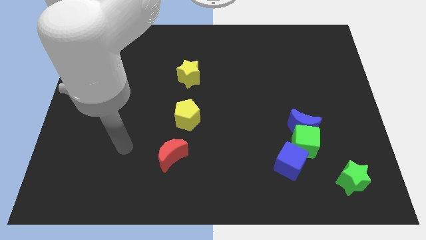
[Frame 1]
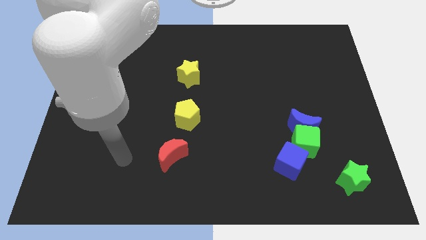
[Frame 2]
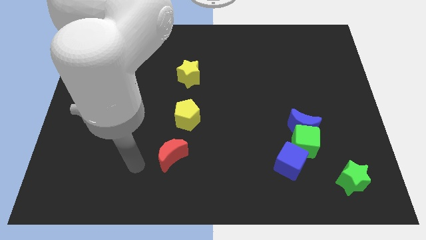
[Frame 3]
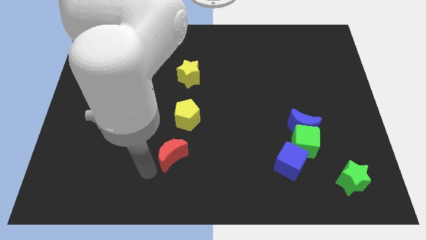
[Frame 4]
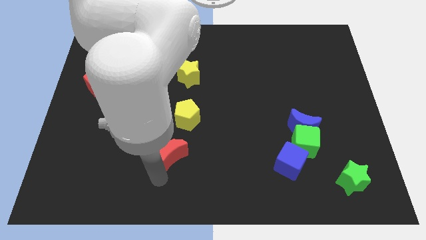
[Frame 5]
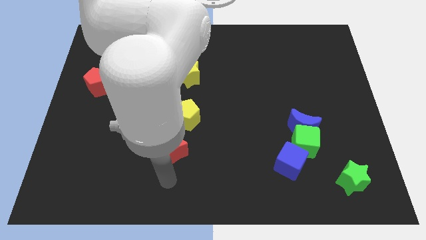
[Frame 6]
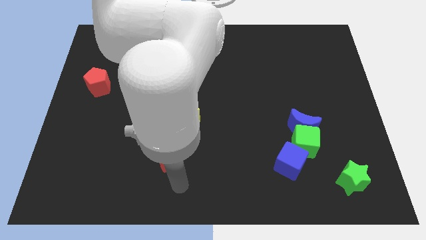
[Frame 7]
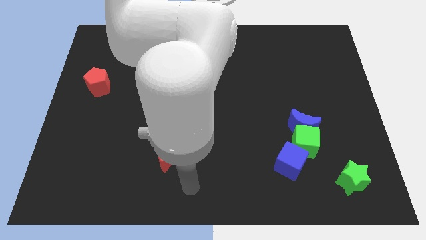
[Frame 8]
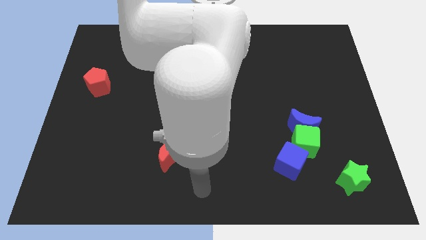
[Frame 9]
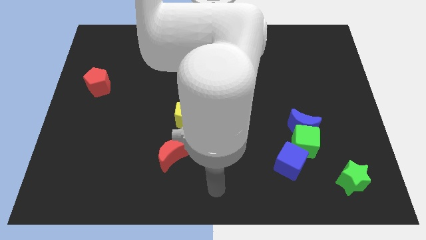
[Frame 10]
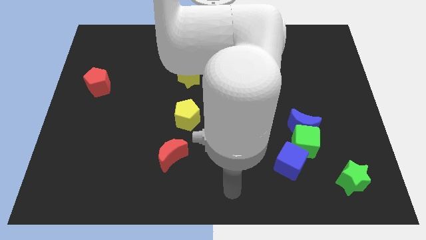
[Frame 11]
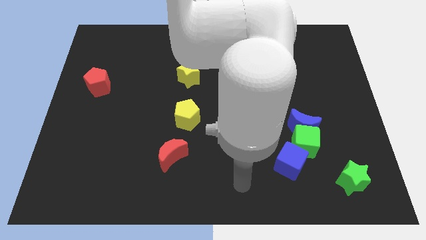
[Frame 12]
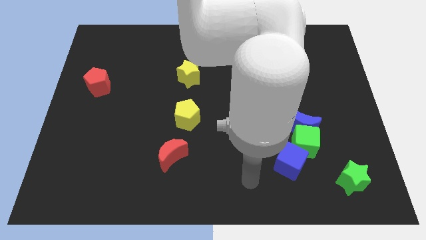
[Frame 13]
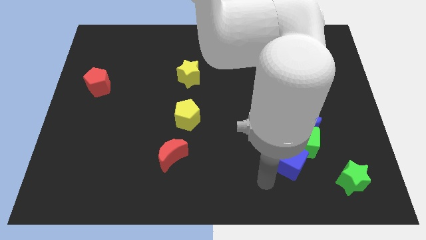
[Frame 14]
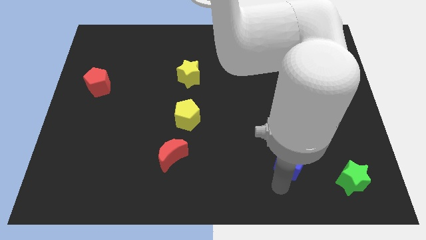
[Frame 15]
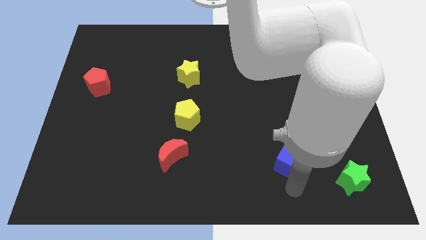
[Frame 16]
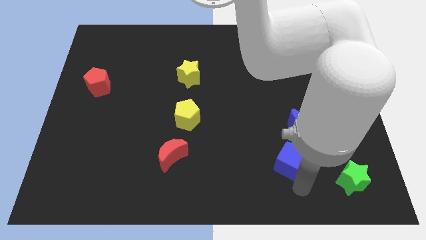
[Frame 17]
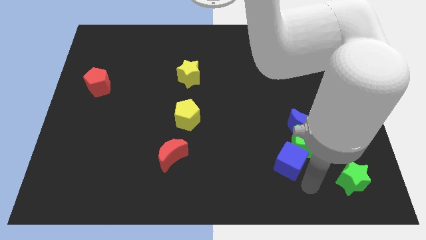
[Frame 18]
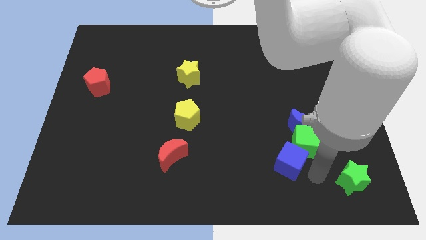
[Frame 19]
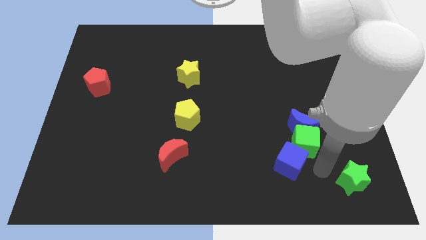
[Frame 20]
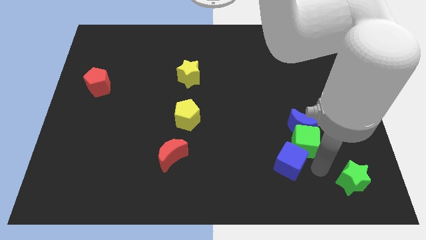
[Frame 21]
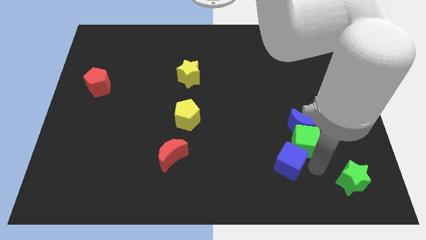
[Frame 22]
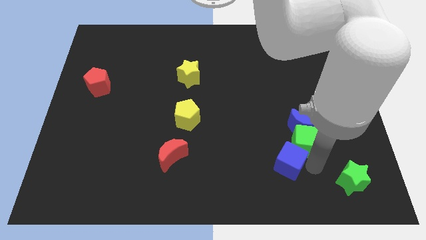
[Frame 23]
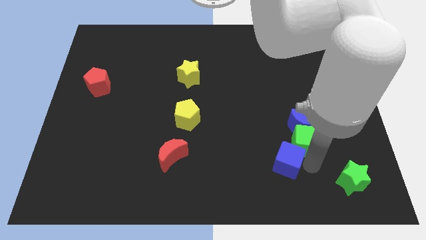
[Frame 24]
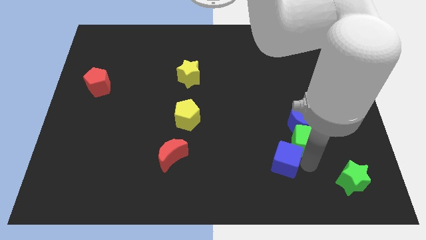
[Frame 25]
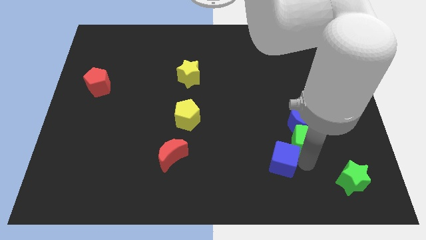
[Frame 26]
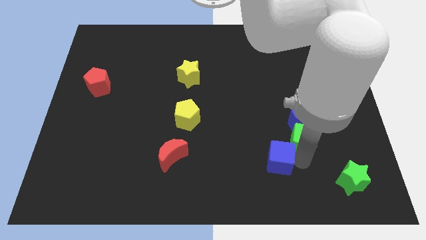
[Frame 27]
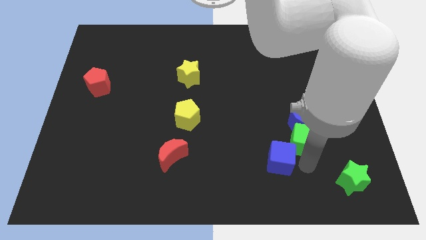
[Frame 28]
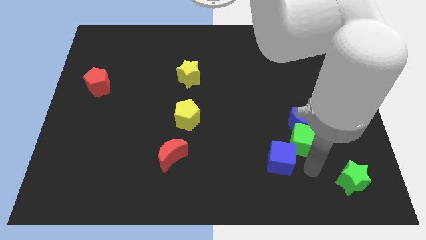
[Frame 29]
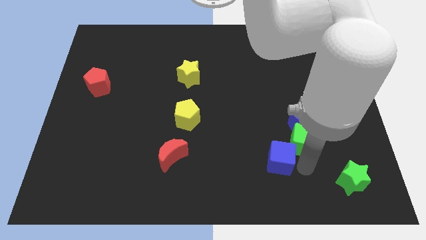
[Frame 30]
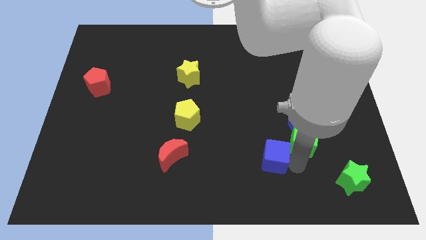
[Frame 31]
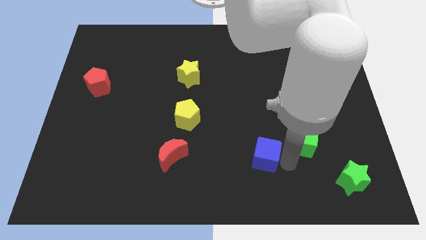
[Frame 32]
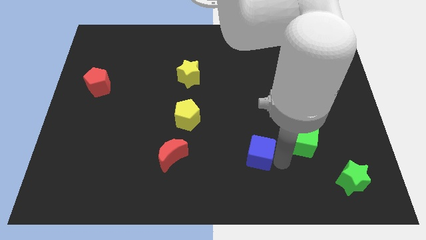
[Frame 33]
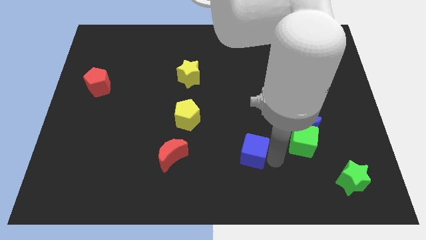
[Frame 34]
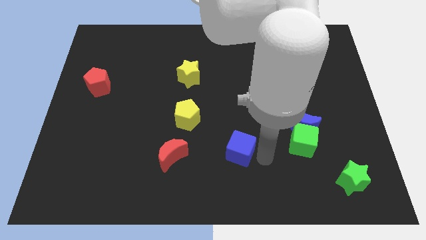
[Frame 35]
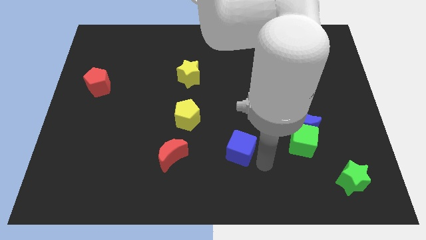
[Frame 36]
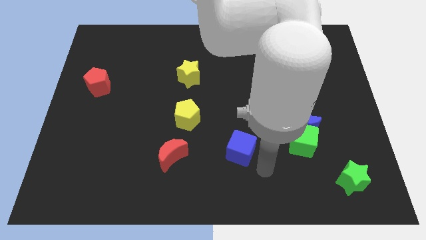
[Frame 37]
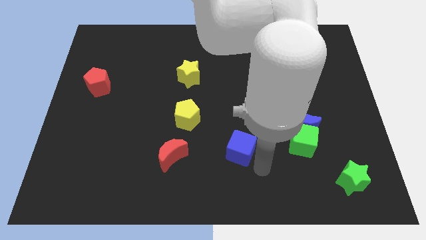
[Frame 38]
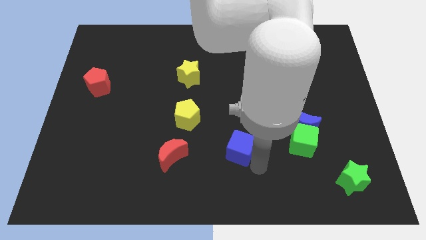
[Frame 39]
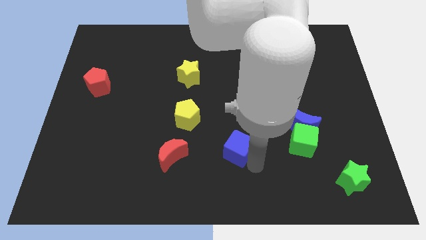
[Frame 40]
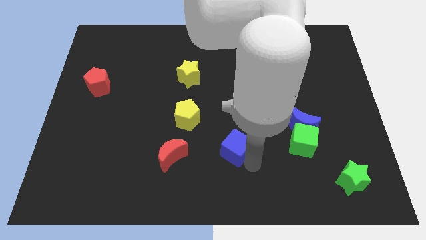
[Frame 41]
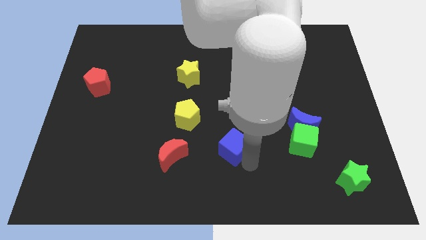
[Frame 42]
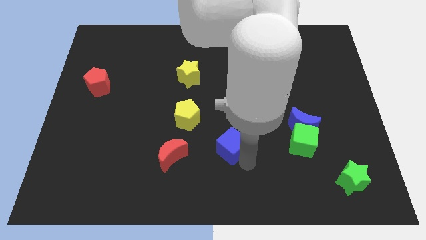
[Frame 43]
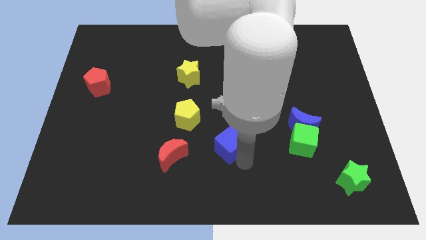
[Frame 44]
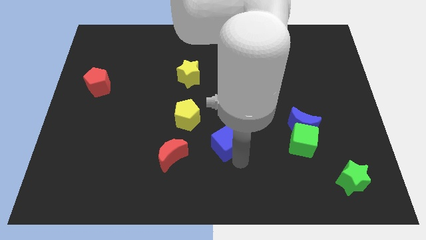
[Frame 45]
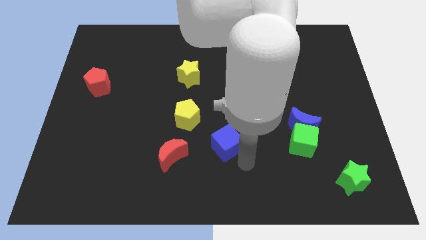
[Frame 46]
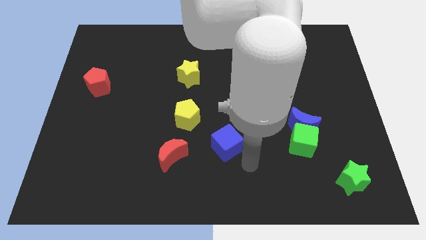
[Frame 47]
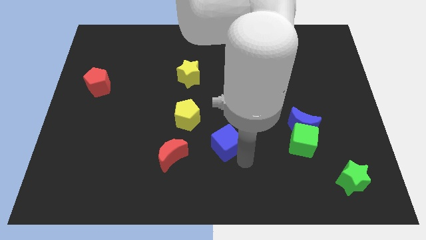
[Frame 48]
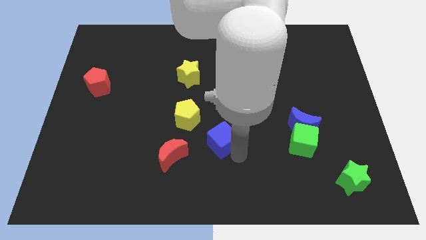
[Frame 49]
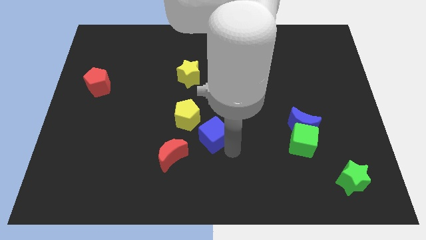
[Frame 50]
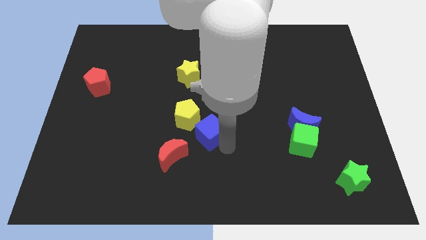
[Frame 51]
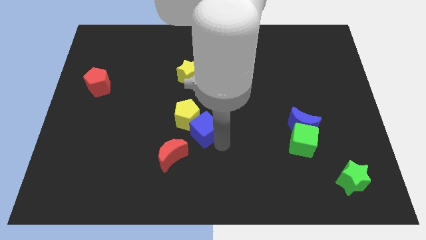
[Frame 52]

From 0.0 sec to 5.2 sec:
push the blue cube towards the yellow pentagon

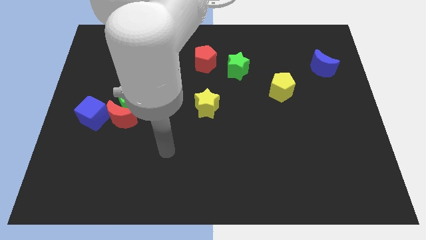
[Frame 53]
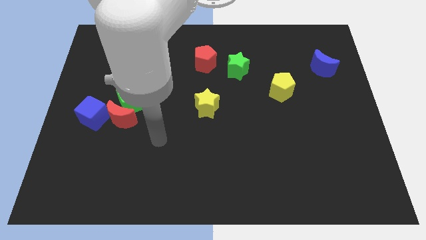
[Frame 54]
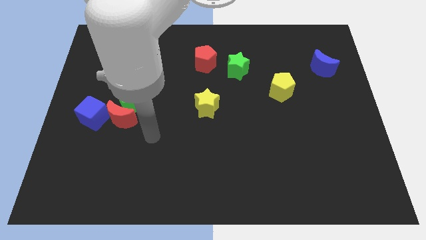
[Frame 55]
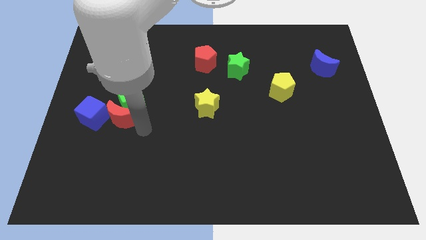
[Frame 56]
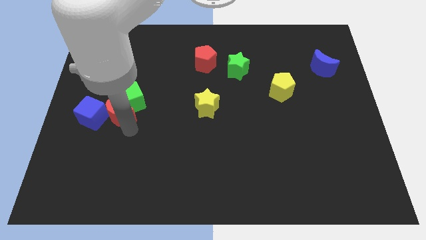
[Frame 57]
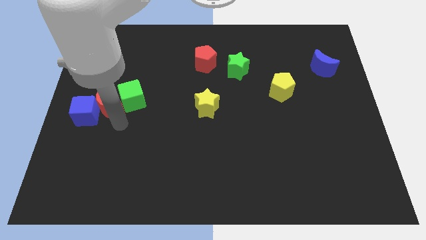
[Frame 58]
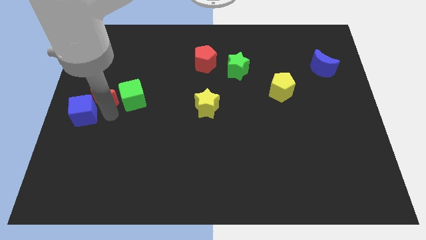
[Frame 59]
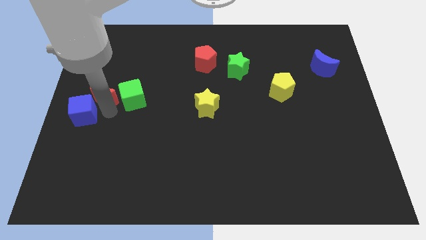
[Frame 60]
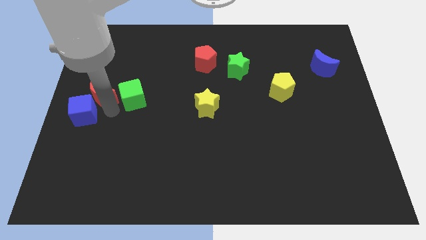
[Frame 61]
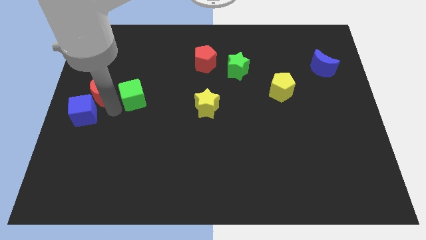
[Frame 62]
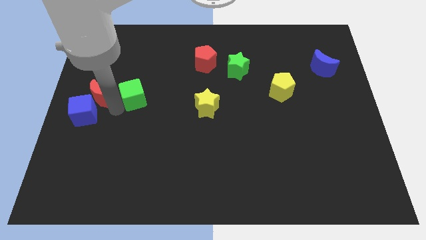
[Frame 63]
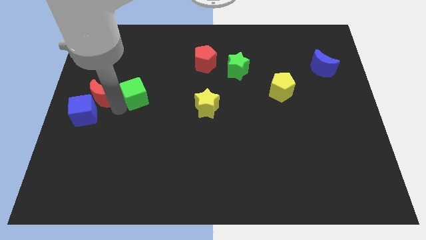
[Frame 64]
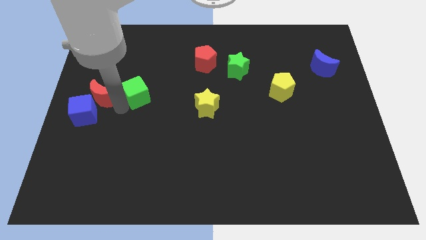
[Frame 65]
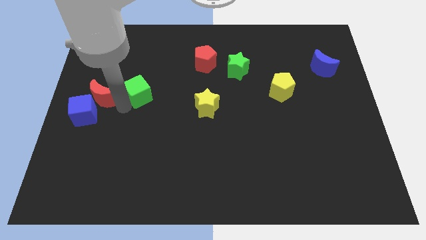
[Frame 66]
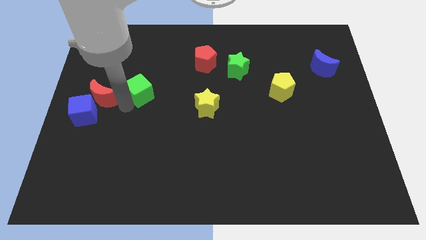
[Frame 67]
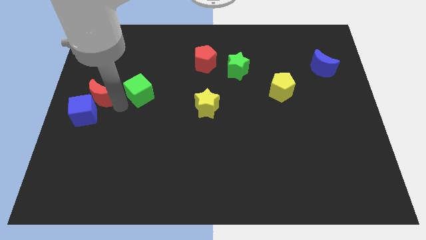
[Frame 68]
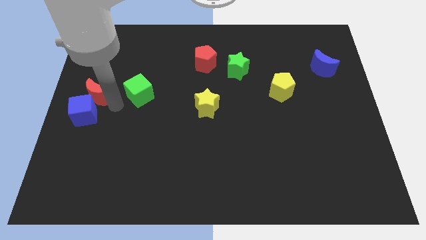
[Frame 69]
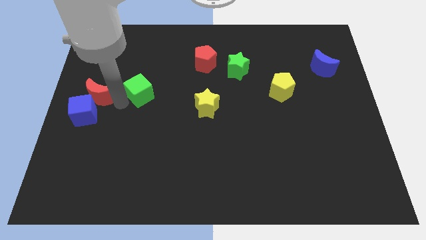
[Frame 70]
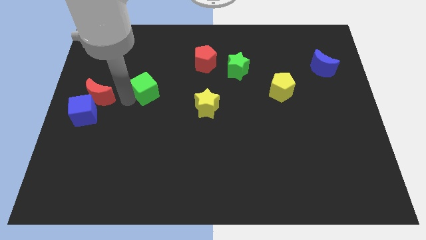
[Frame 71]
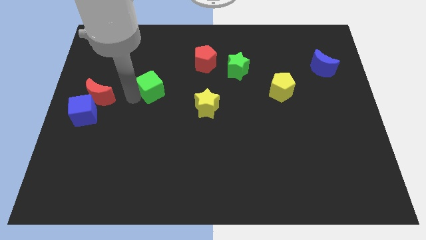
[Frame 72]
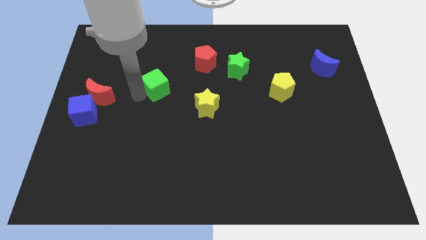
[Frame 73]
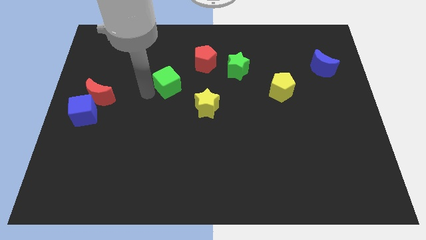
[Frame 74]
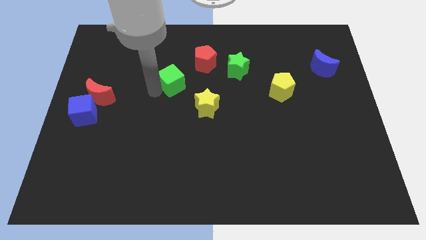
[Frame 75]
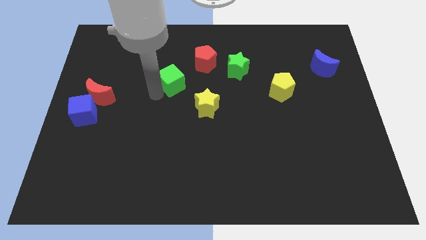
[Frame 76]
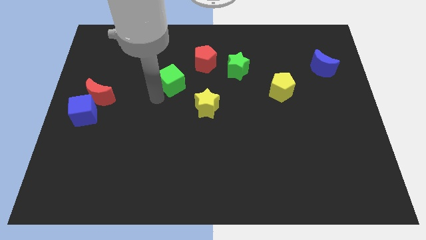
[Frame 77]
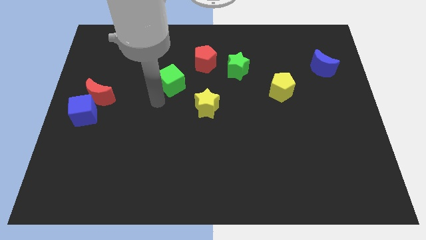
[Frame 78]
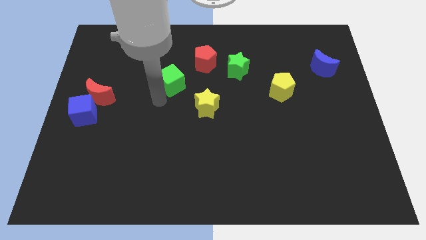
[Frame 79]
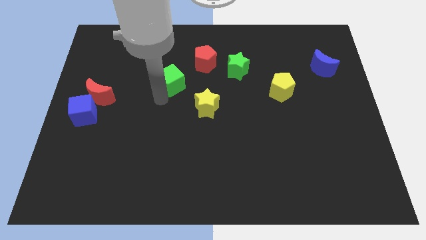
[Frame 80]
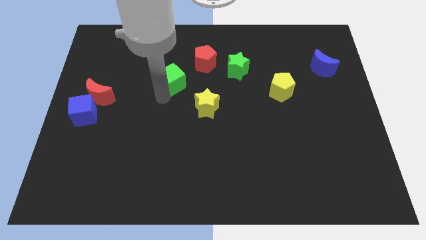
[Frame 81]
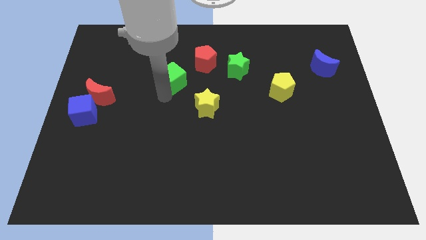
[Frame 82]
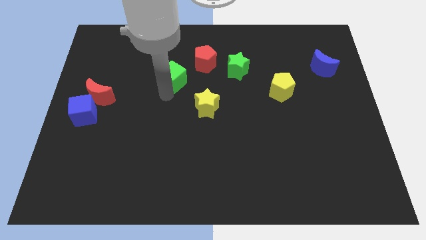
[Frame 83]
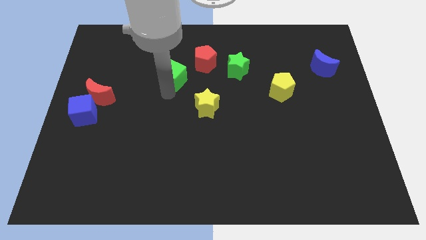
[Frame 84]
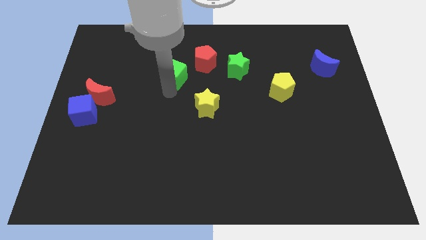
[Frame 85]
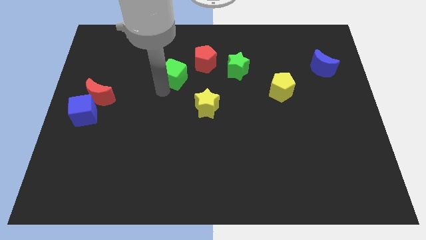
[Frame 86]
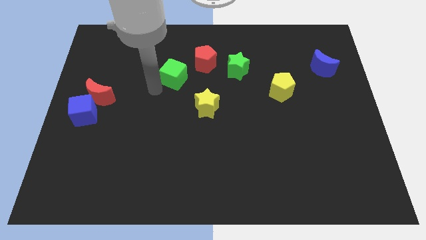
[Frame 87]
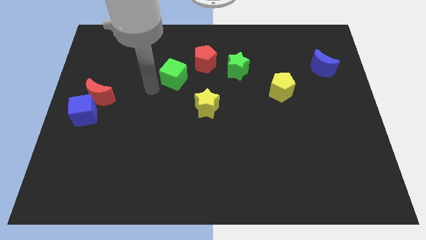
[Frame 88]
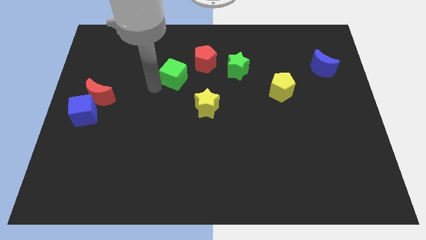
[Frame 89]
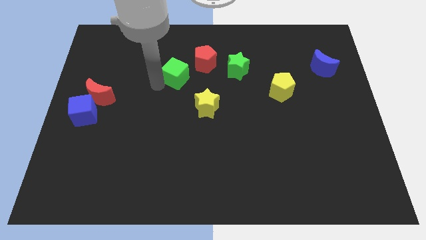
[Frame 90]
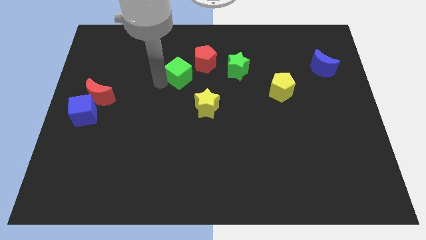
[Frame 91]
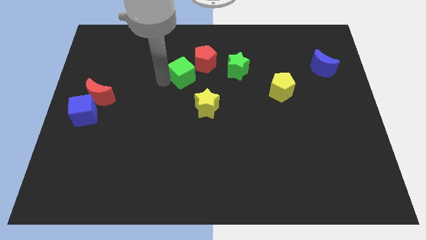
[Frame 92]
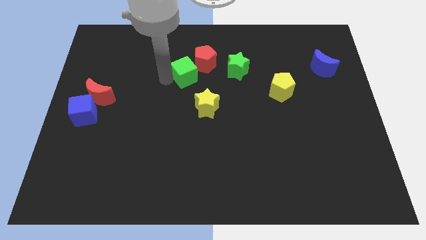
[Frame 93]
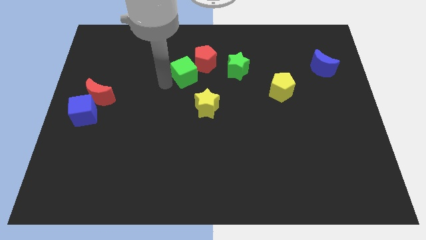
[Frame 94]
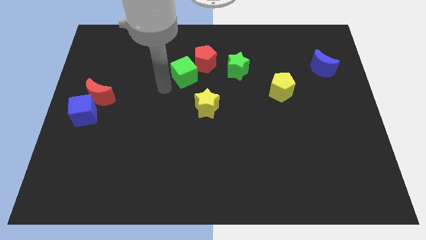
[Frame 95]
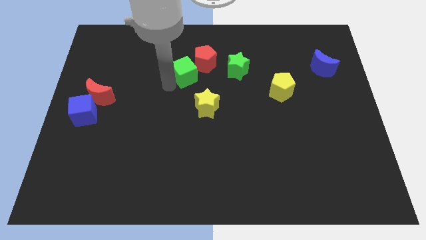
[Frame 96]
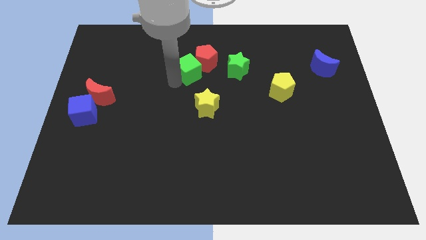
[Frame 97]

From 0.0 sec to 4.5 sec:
slide the green cube next to the red pentagon
